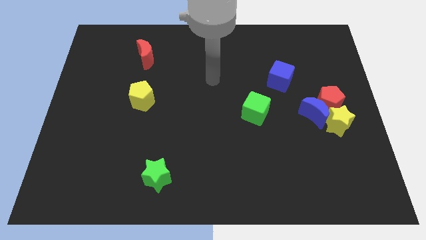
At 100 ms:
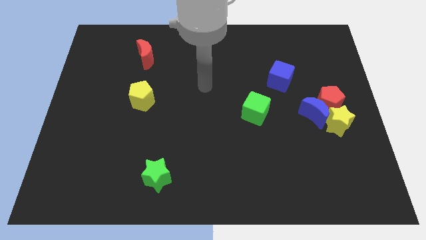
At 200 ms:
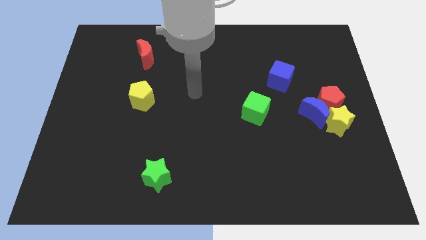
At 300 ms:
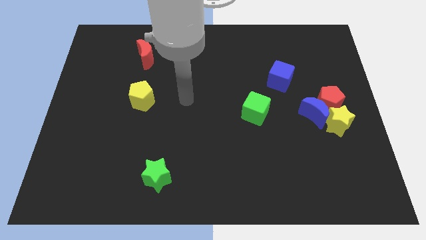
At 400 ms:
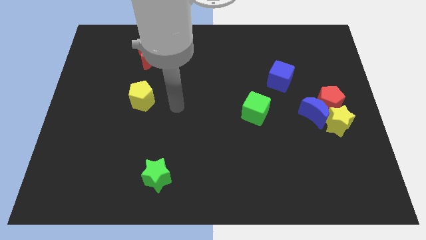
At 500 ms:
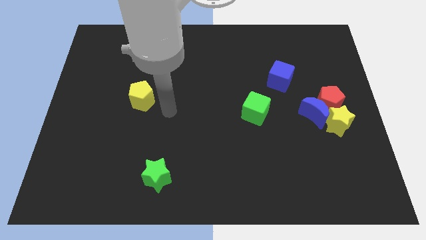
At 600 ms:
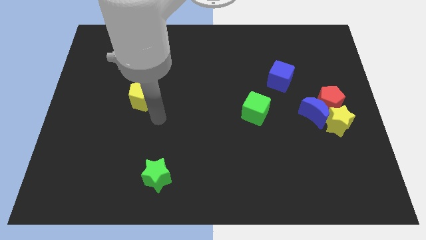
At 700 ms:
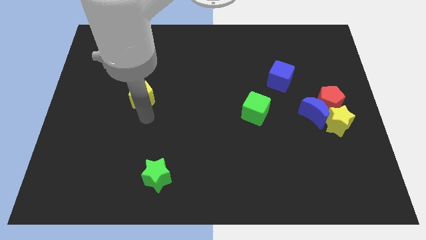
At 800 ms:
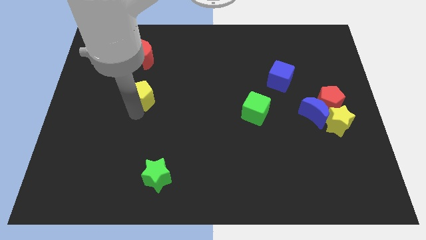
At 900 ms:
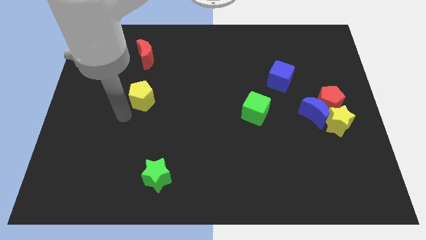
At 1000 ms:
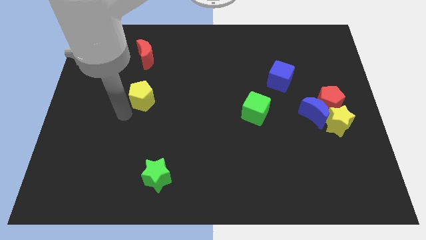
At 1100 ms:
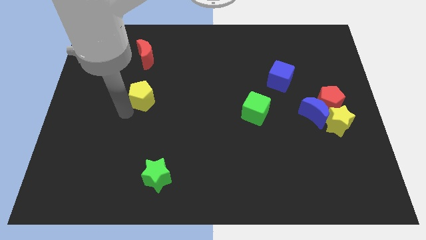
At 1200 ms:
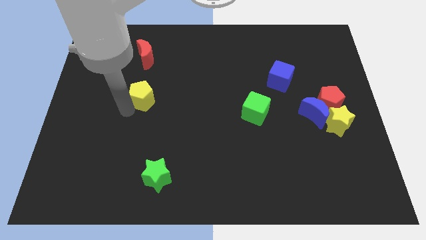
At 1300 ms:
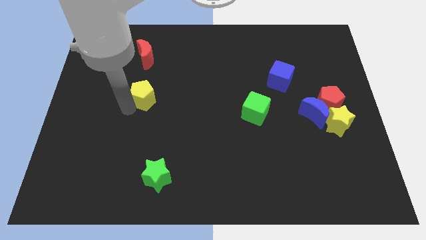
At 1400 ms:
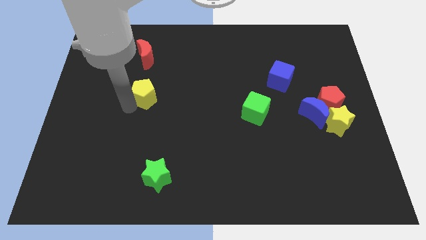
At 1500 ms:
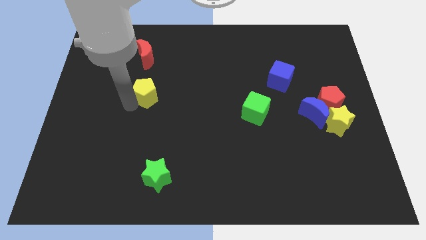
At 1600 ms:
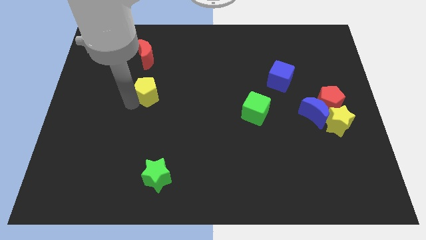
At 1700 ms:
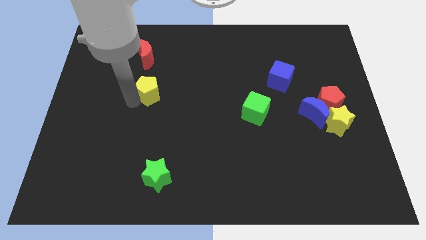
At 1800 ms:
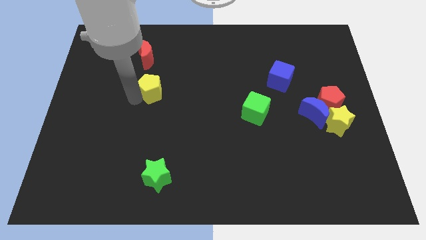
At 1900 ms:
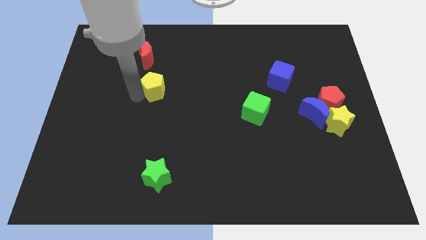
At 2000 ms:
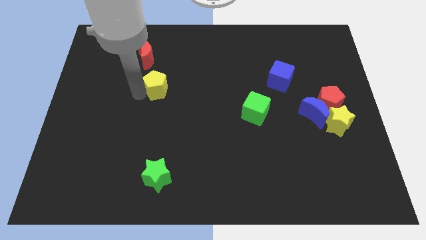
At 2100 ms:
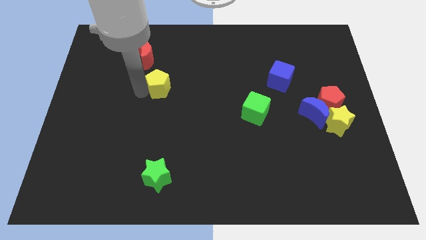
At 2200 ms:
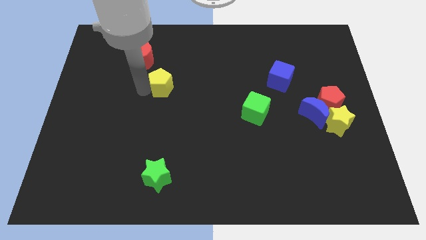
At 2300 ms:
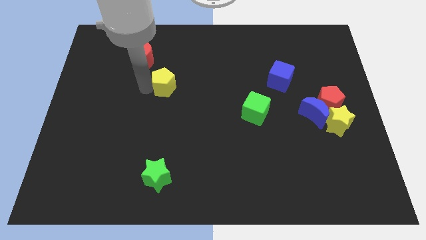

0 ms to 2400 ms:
slightly slide the yellow pentagon upwards and to the right diagonally

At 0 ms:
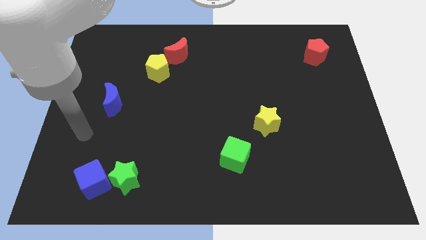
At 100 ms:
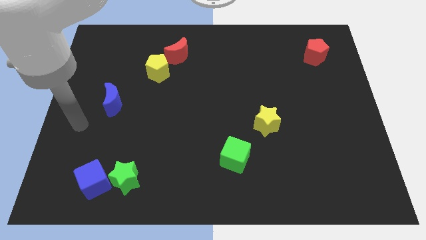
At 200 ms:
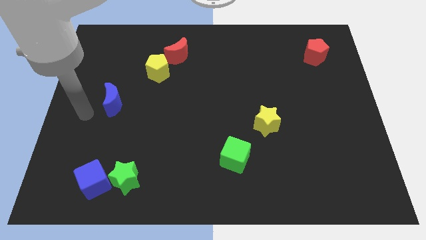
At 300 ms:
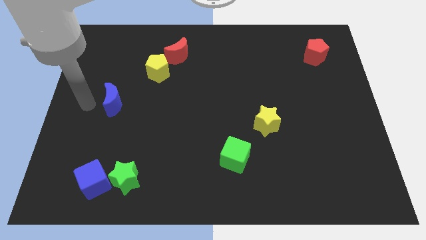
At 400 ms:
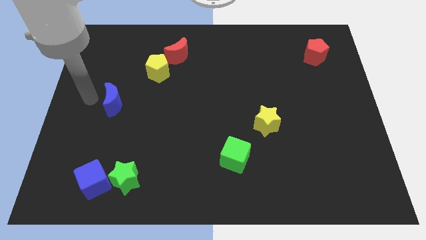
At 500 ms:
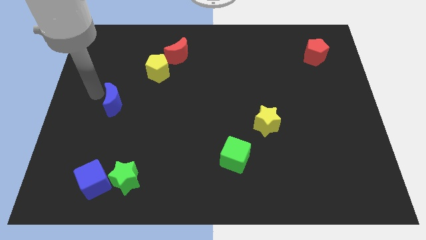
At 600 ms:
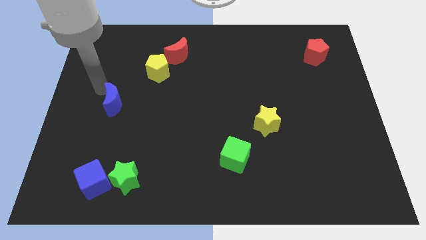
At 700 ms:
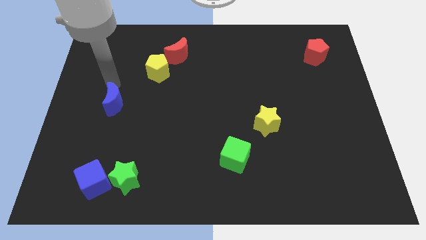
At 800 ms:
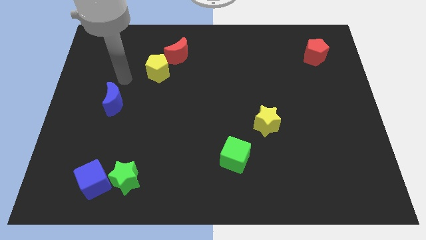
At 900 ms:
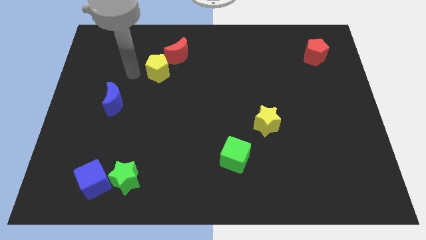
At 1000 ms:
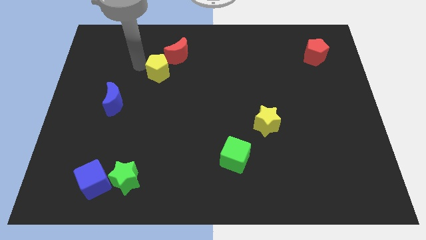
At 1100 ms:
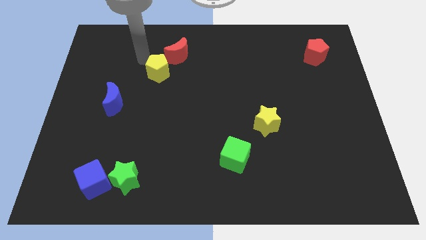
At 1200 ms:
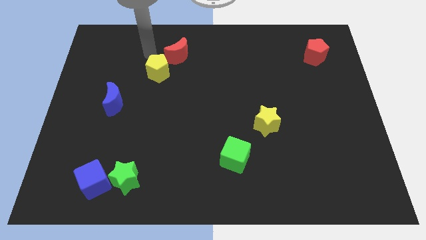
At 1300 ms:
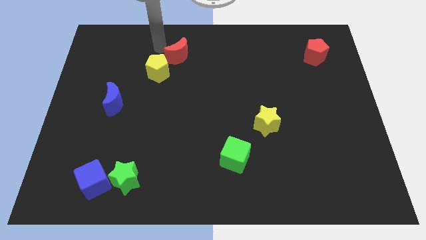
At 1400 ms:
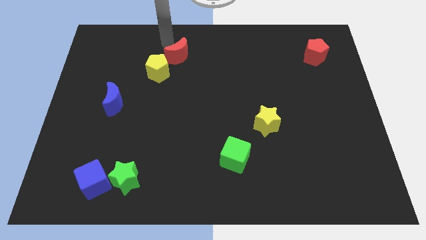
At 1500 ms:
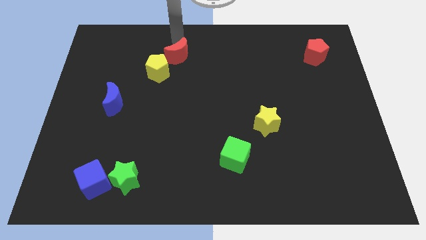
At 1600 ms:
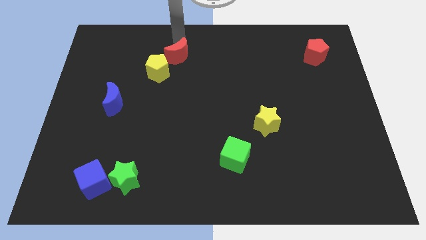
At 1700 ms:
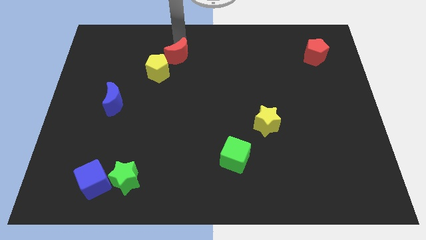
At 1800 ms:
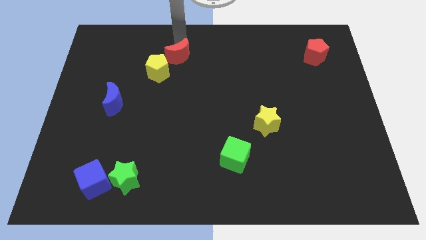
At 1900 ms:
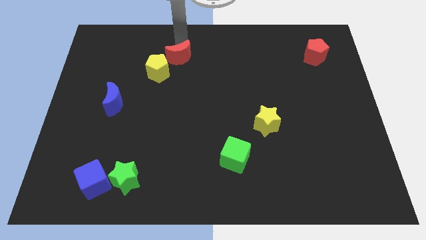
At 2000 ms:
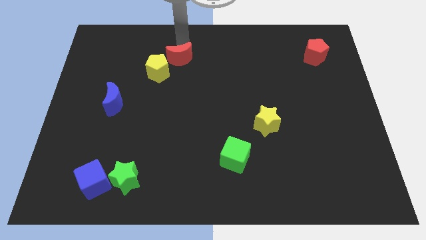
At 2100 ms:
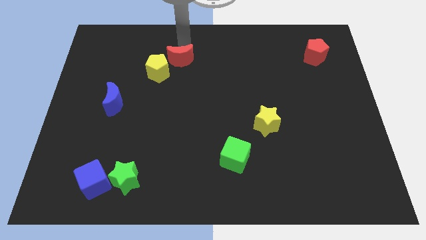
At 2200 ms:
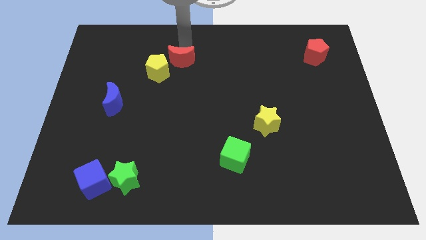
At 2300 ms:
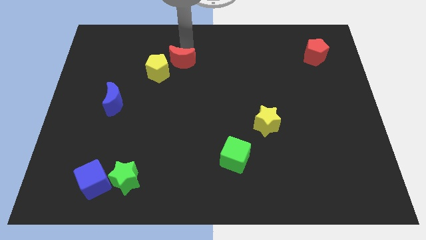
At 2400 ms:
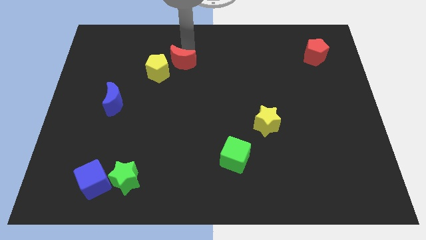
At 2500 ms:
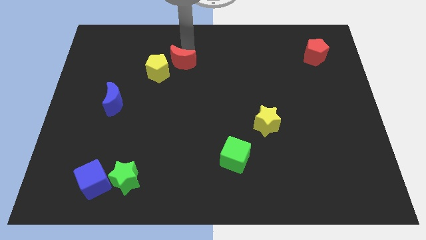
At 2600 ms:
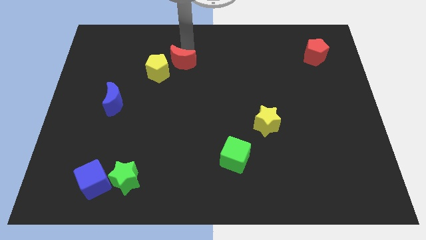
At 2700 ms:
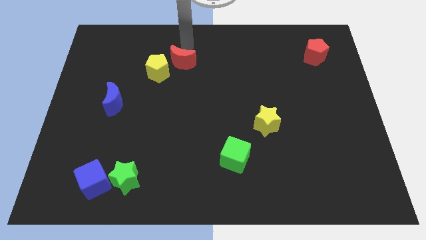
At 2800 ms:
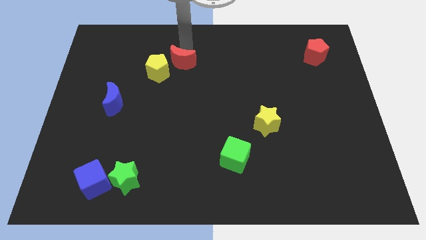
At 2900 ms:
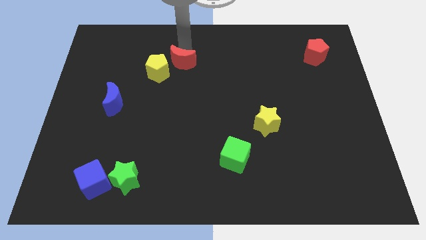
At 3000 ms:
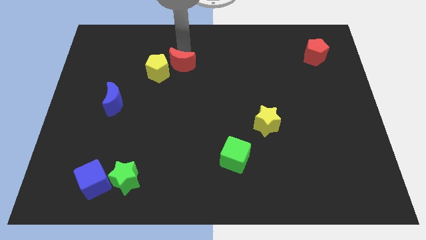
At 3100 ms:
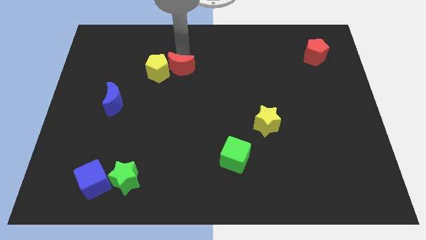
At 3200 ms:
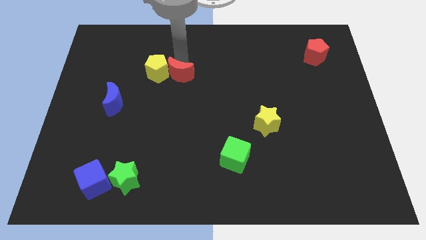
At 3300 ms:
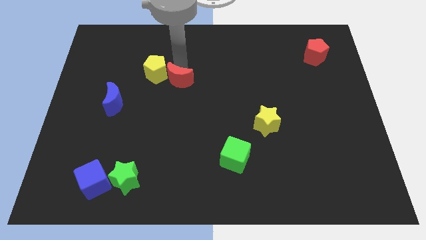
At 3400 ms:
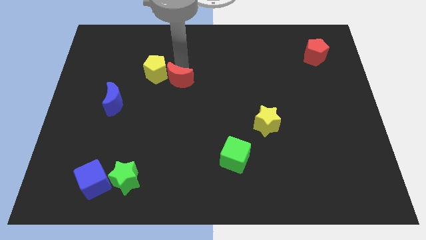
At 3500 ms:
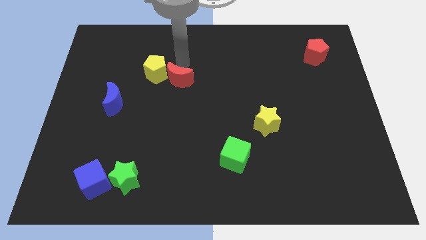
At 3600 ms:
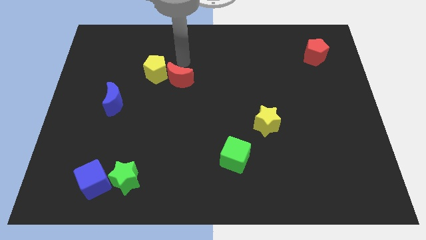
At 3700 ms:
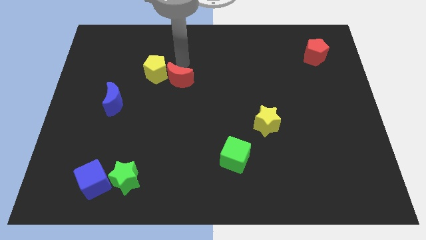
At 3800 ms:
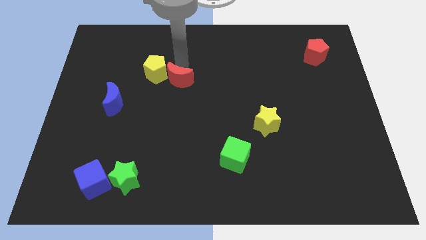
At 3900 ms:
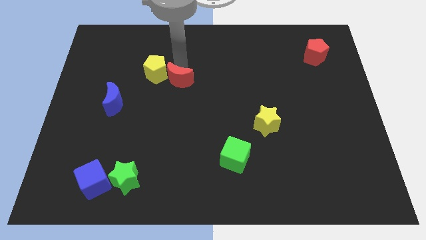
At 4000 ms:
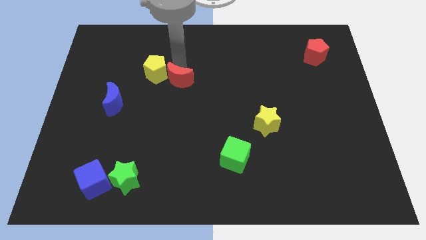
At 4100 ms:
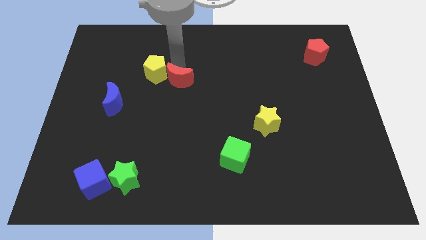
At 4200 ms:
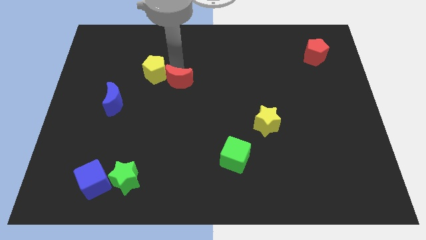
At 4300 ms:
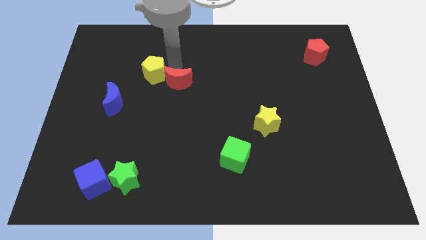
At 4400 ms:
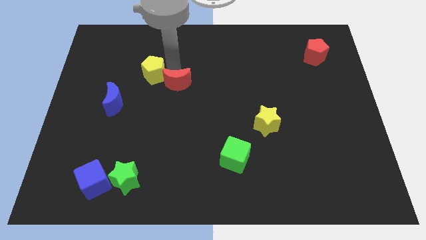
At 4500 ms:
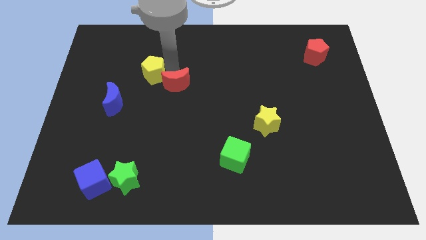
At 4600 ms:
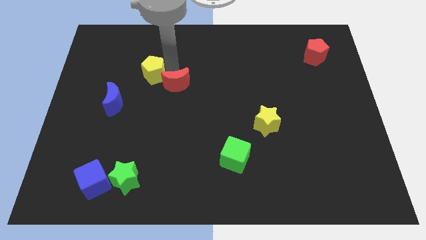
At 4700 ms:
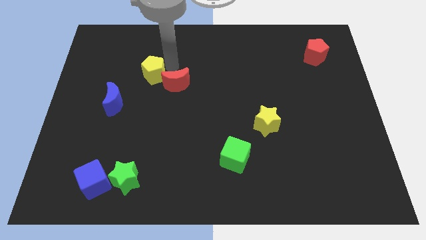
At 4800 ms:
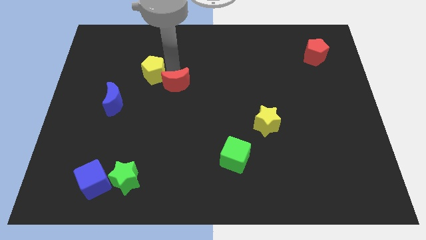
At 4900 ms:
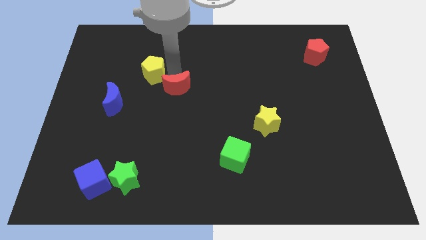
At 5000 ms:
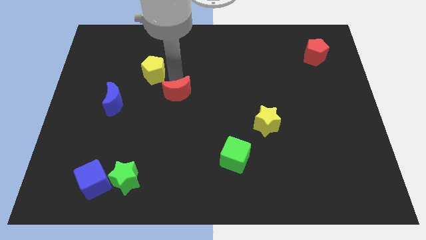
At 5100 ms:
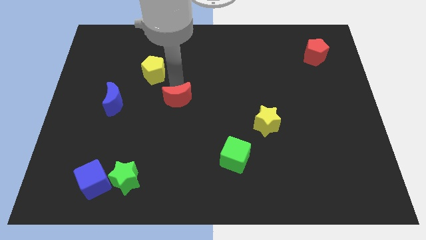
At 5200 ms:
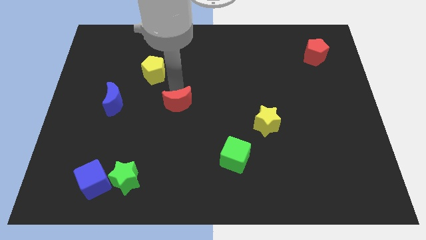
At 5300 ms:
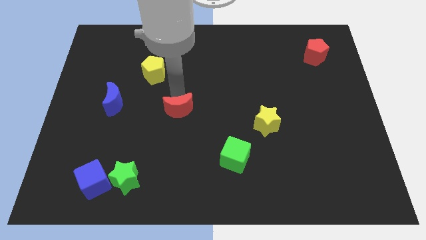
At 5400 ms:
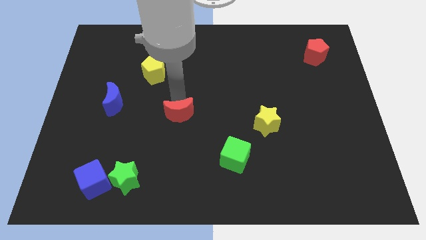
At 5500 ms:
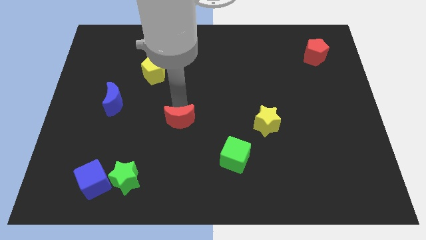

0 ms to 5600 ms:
slide the red moon down
